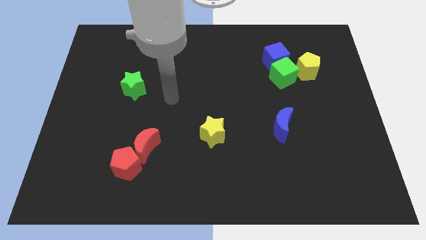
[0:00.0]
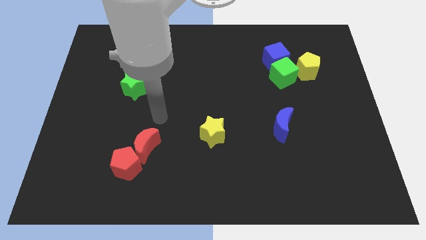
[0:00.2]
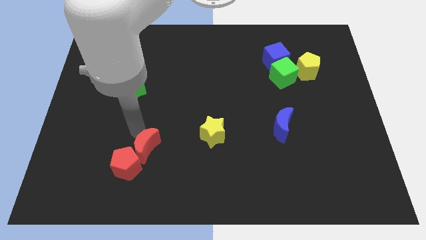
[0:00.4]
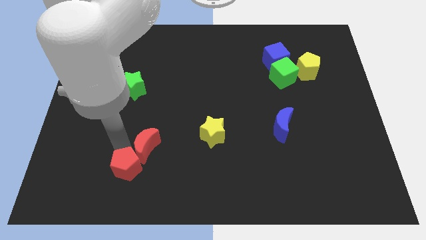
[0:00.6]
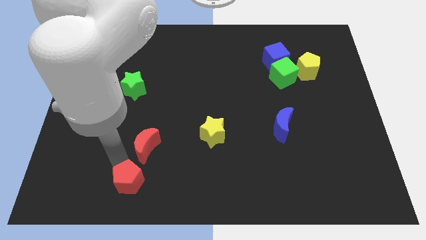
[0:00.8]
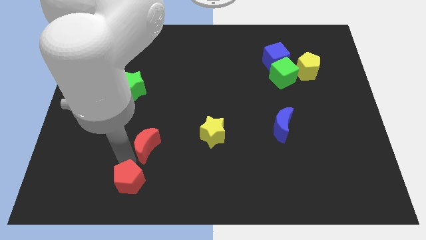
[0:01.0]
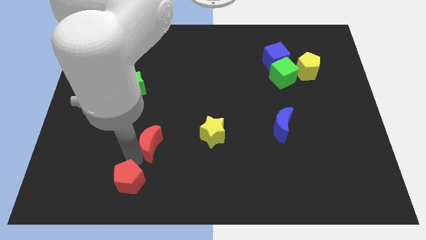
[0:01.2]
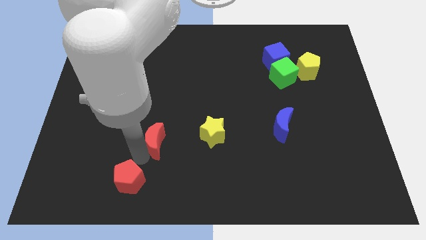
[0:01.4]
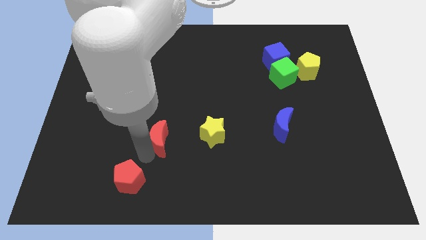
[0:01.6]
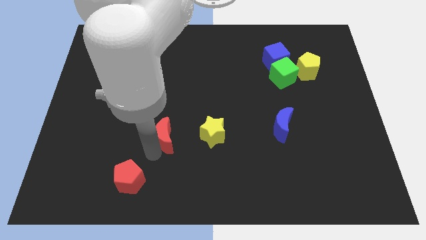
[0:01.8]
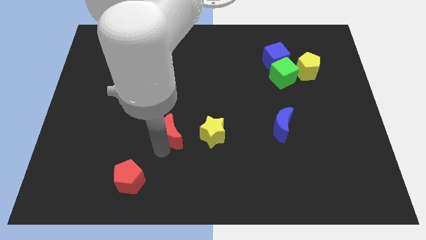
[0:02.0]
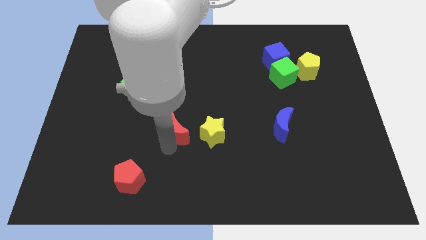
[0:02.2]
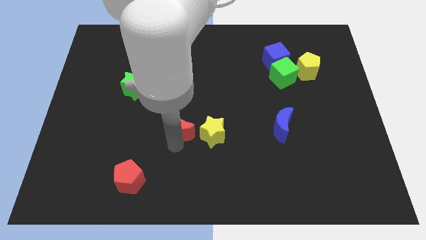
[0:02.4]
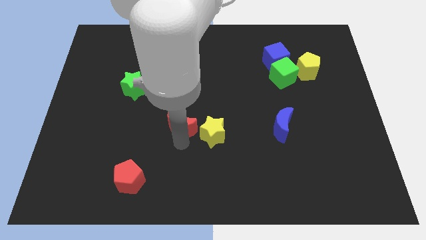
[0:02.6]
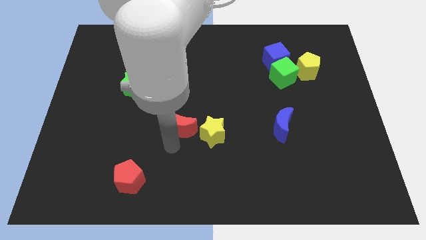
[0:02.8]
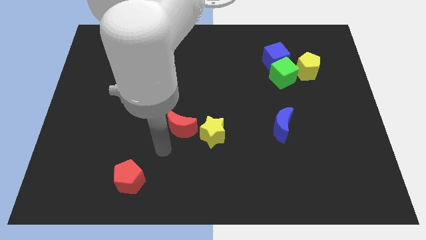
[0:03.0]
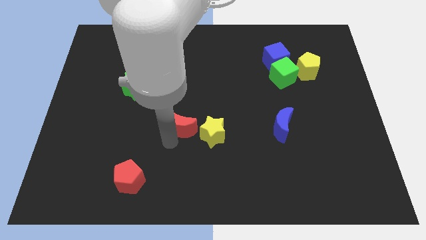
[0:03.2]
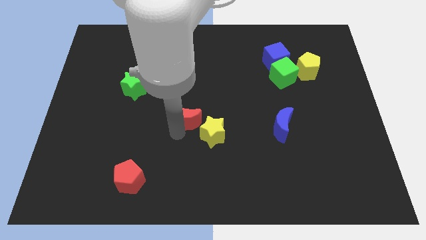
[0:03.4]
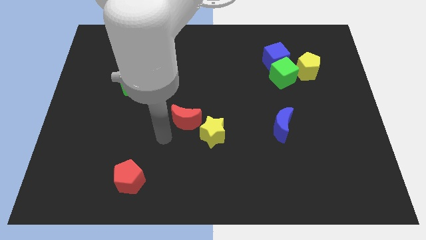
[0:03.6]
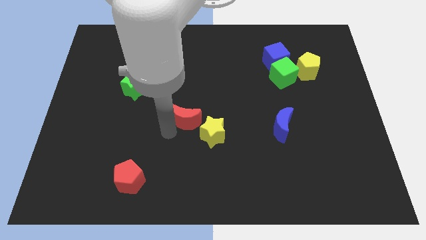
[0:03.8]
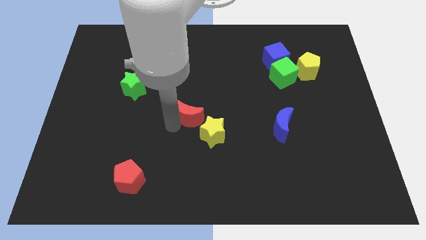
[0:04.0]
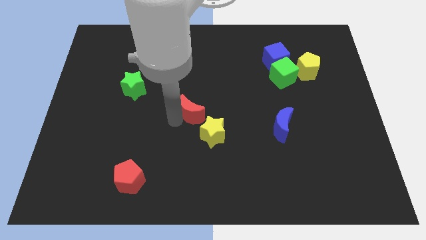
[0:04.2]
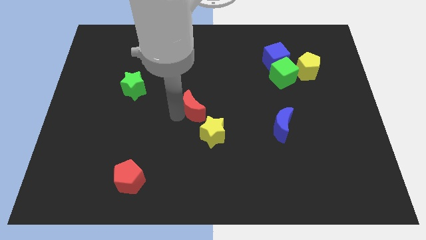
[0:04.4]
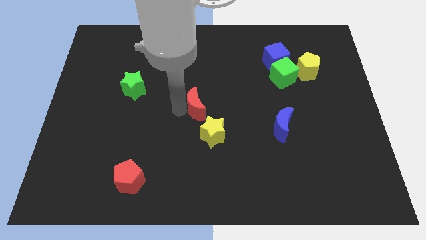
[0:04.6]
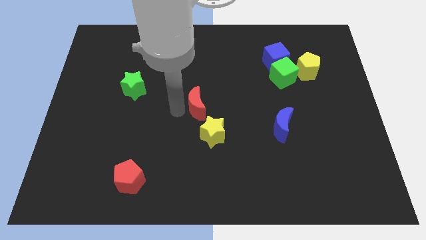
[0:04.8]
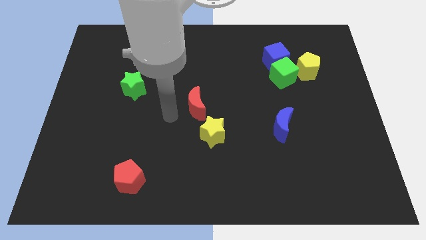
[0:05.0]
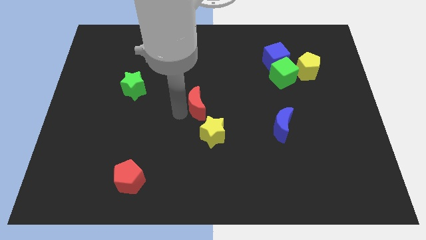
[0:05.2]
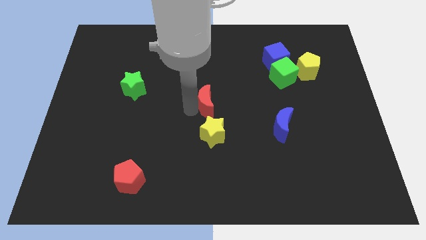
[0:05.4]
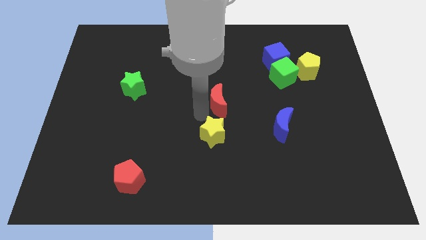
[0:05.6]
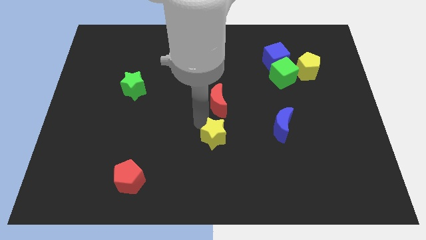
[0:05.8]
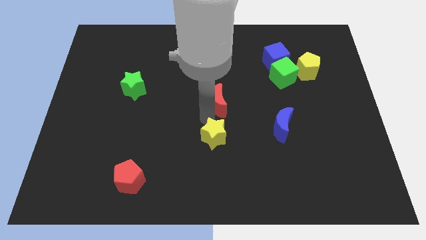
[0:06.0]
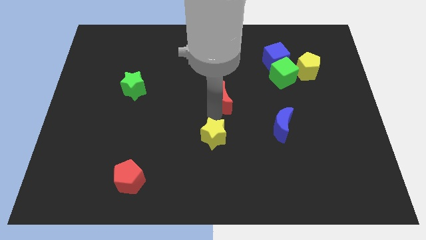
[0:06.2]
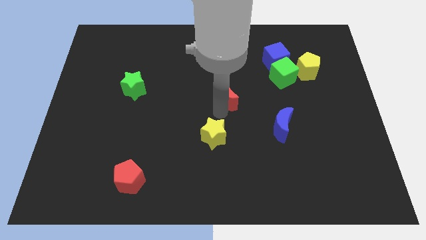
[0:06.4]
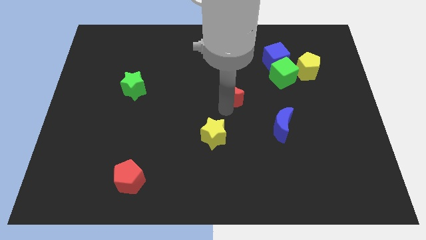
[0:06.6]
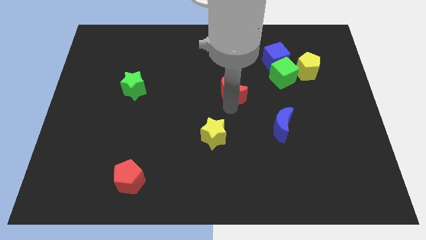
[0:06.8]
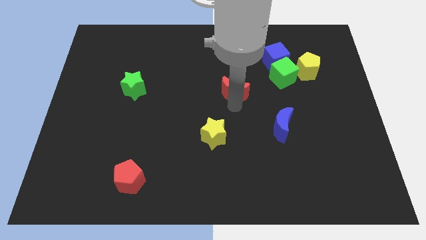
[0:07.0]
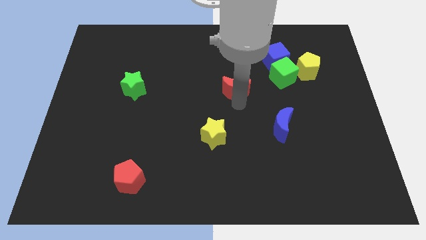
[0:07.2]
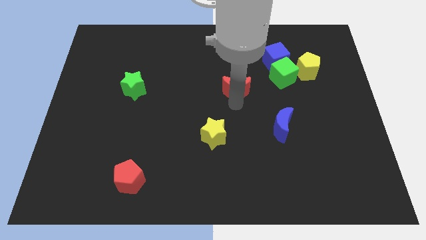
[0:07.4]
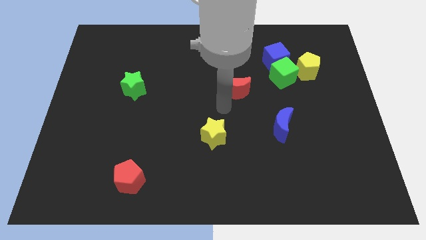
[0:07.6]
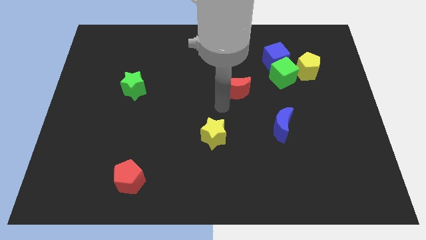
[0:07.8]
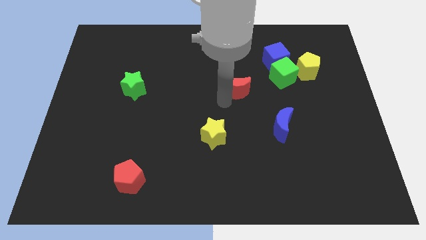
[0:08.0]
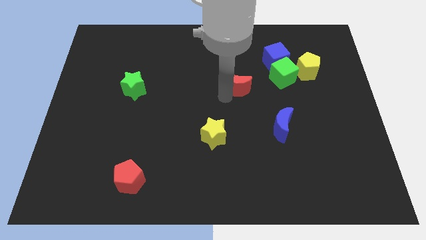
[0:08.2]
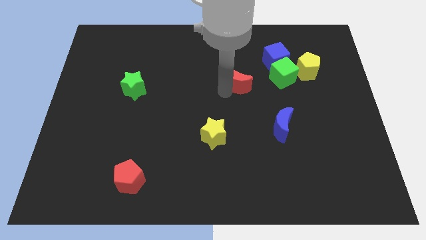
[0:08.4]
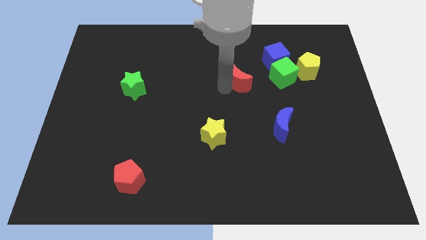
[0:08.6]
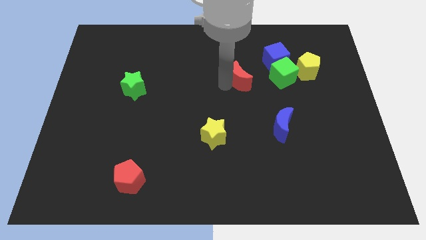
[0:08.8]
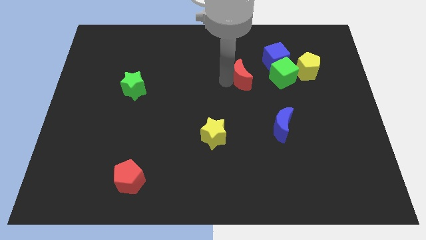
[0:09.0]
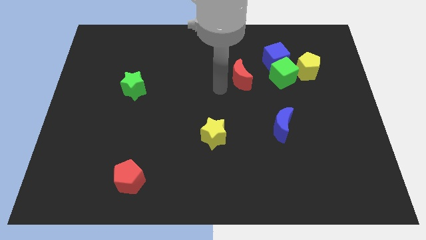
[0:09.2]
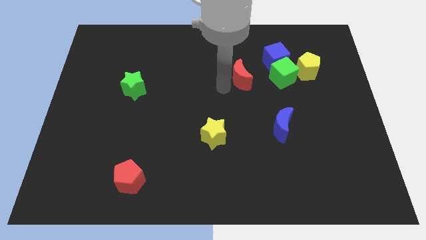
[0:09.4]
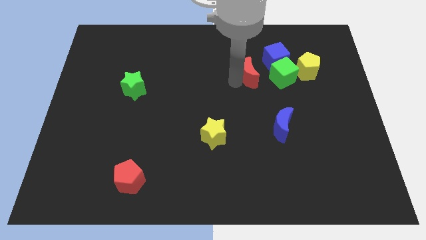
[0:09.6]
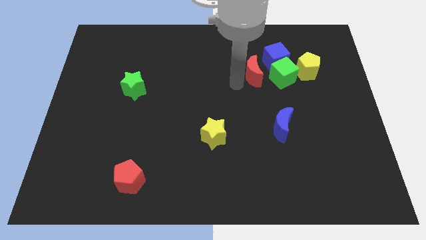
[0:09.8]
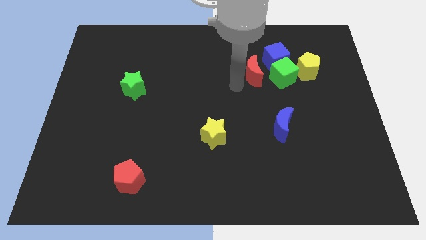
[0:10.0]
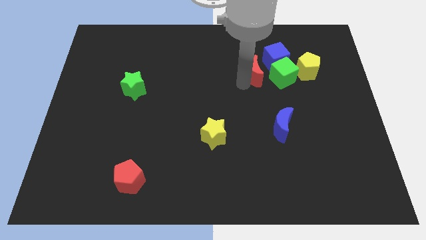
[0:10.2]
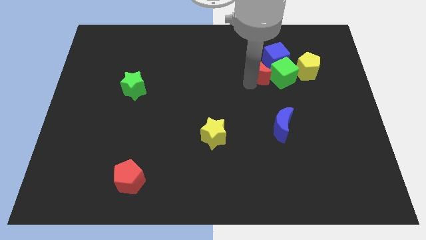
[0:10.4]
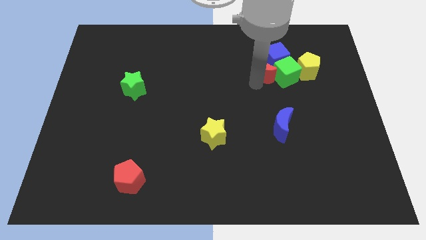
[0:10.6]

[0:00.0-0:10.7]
put the red moon towards the blue cube

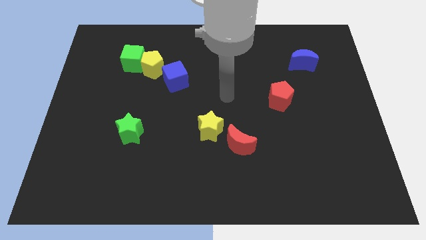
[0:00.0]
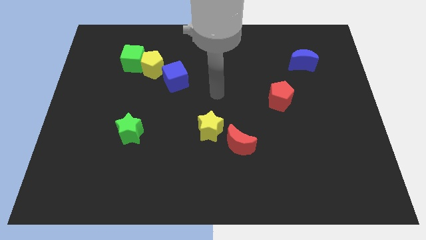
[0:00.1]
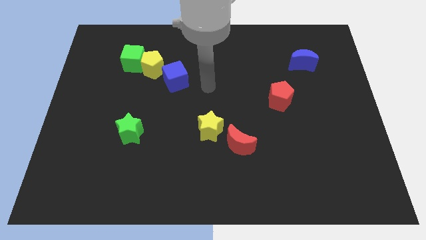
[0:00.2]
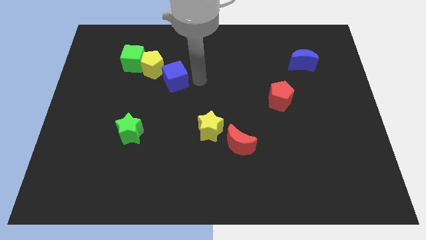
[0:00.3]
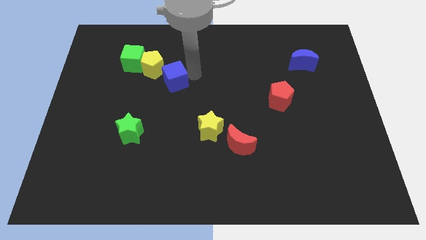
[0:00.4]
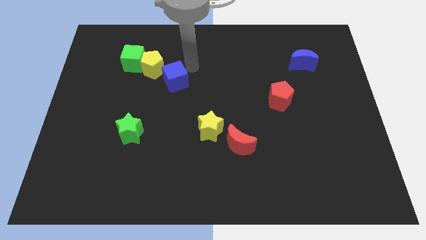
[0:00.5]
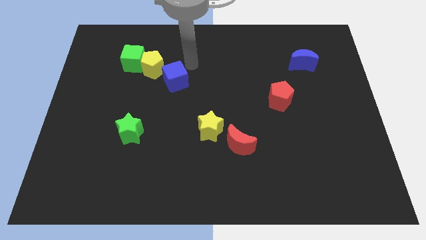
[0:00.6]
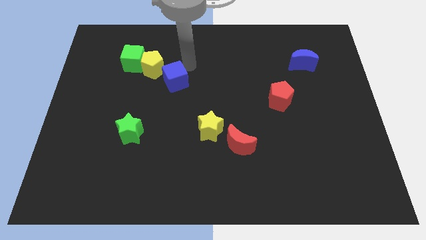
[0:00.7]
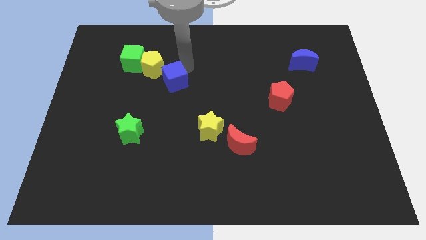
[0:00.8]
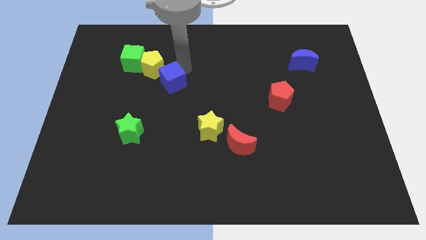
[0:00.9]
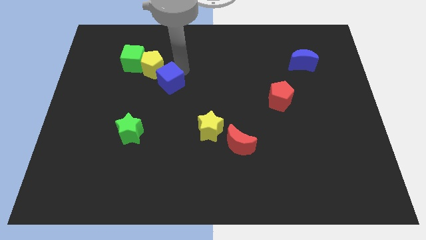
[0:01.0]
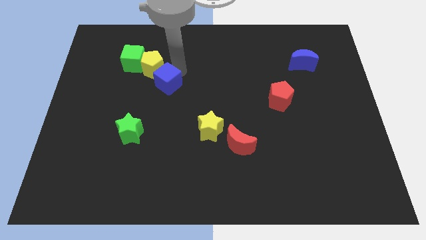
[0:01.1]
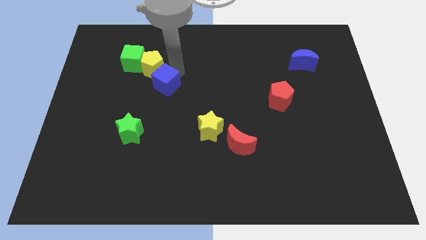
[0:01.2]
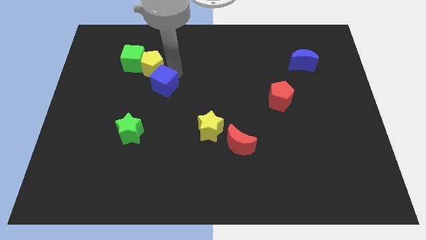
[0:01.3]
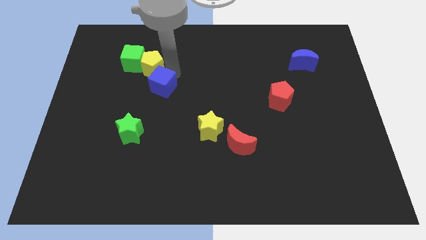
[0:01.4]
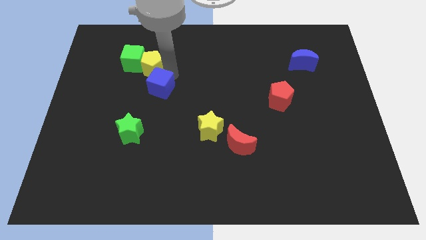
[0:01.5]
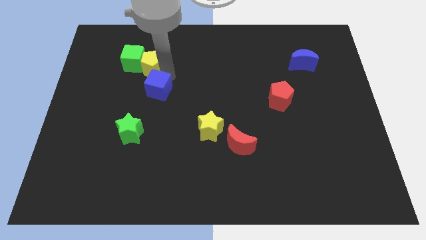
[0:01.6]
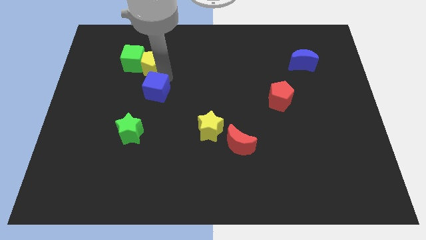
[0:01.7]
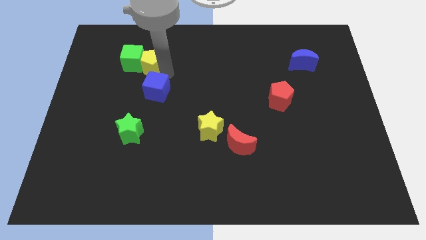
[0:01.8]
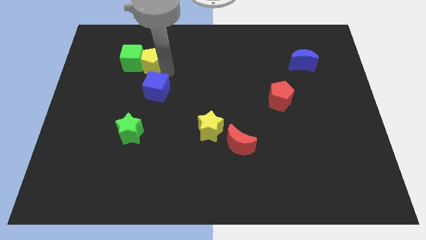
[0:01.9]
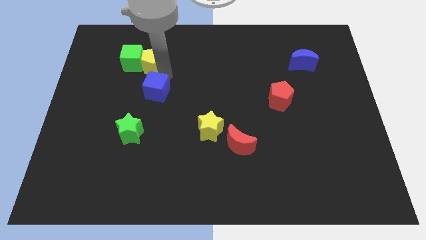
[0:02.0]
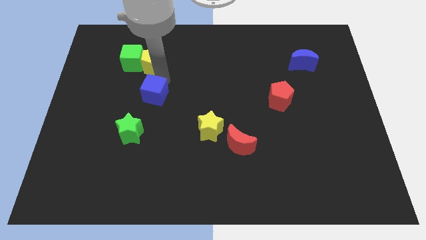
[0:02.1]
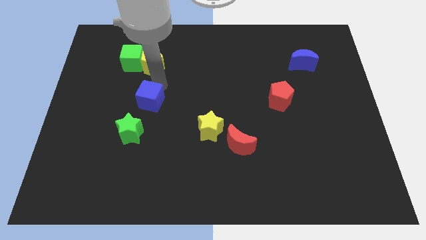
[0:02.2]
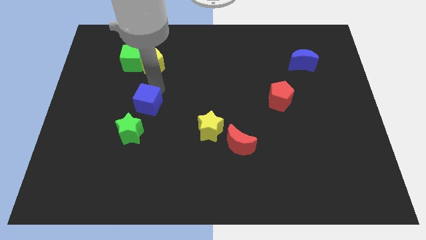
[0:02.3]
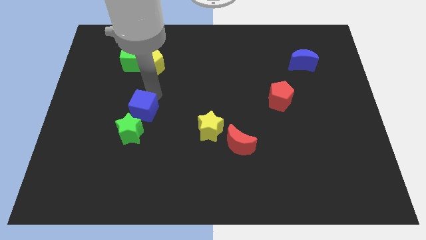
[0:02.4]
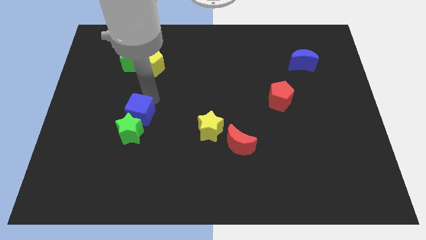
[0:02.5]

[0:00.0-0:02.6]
move the blue cube next to the green star
